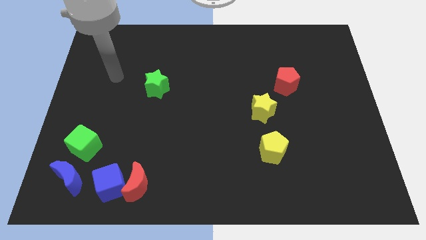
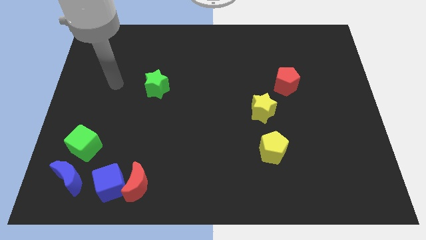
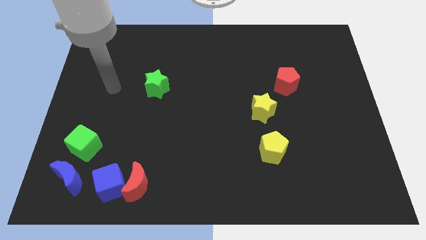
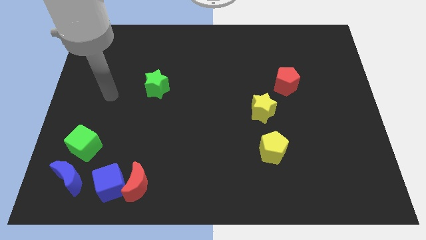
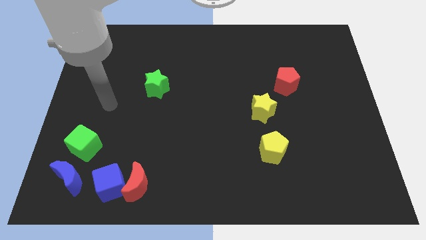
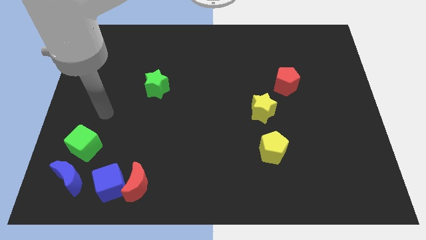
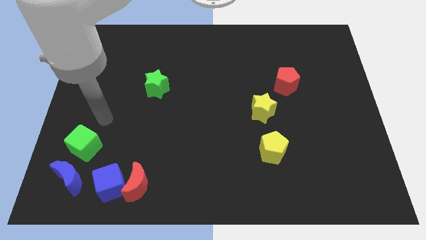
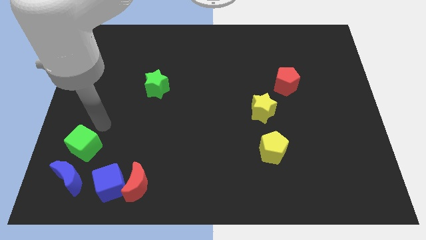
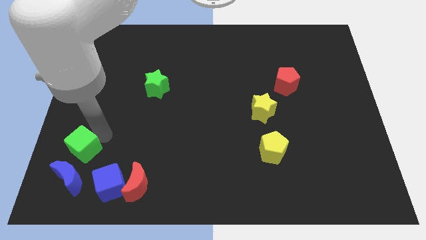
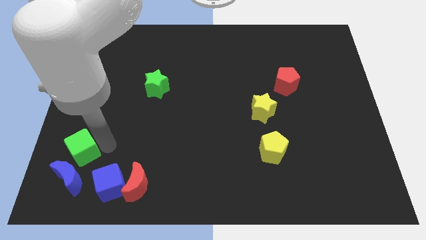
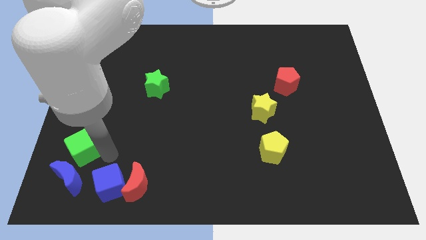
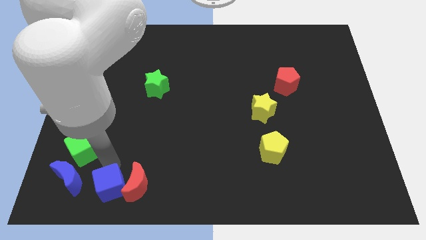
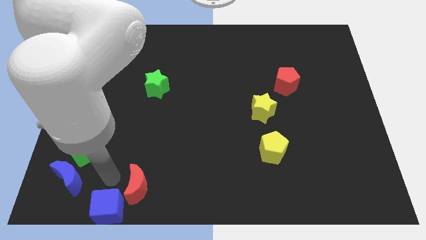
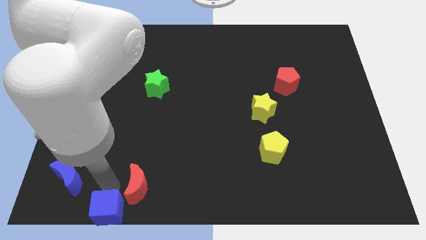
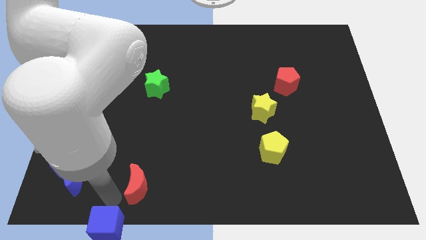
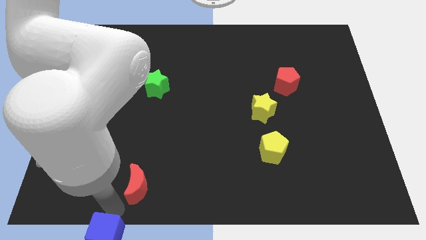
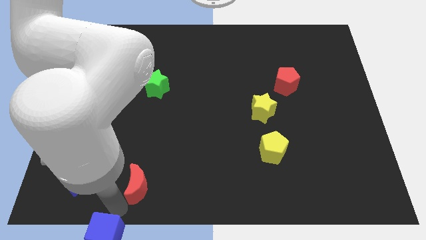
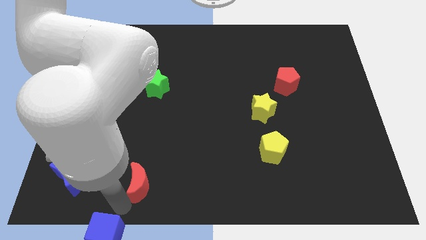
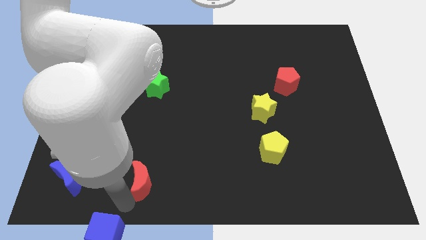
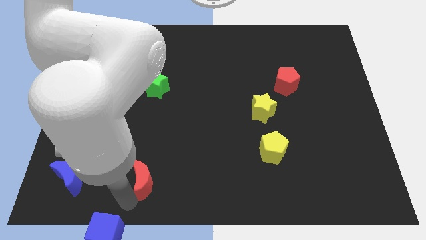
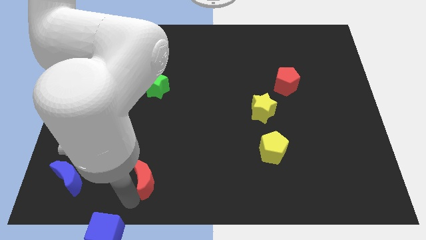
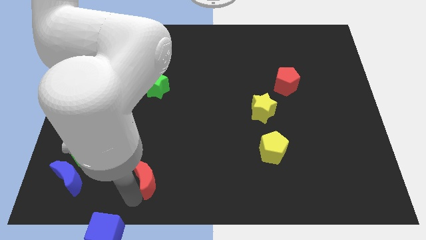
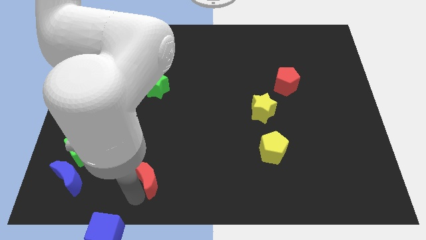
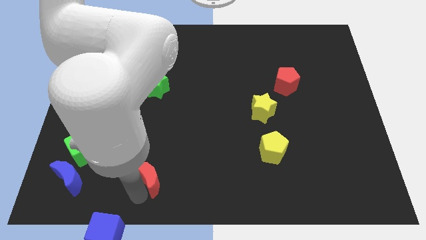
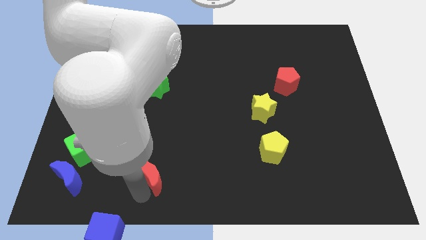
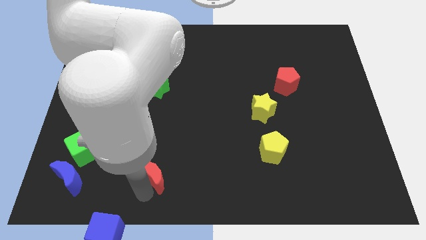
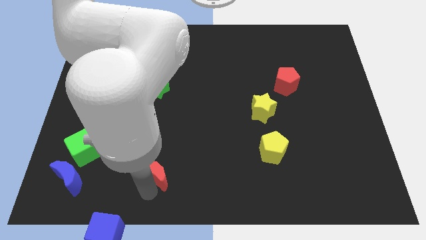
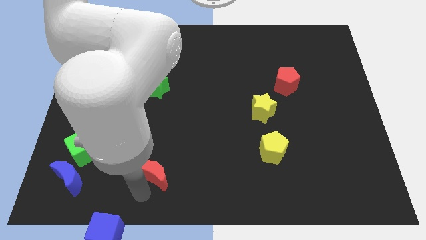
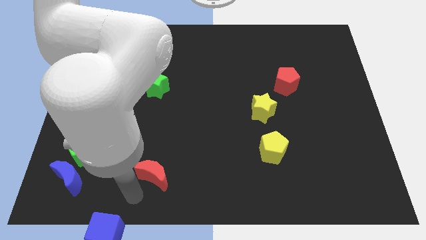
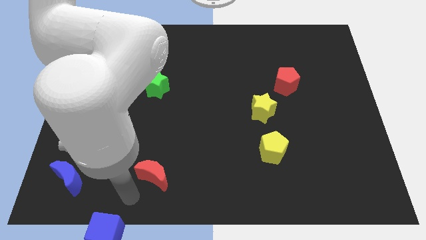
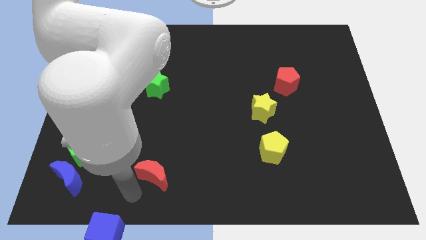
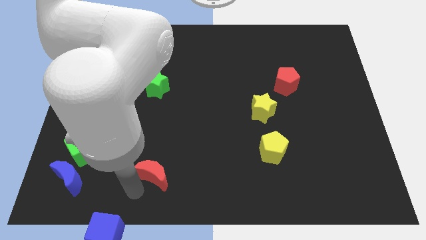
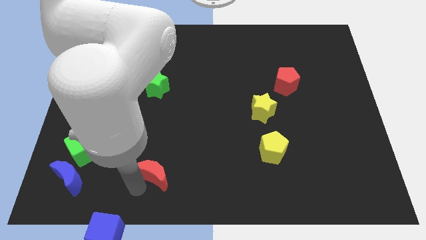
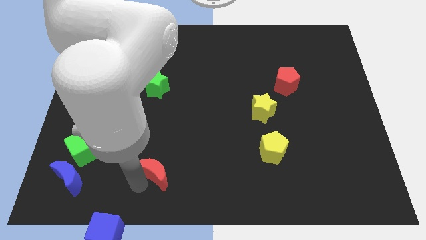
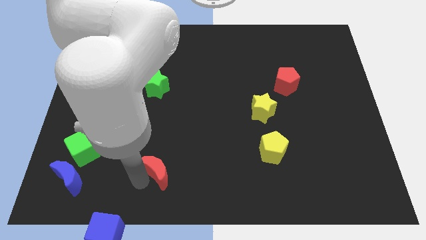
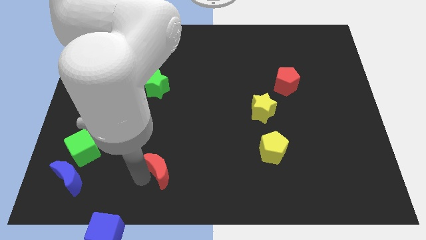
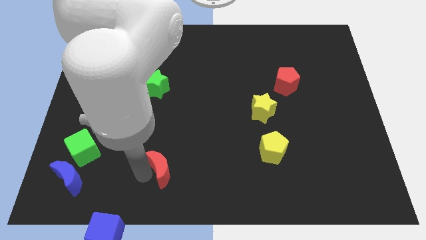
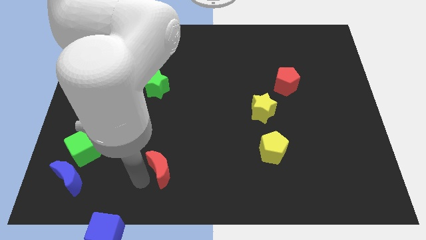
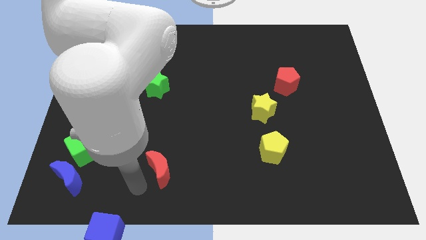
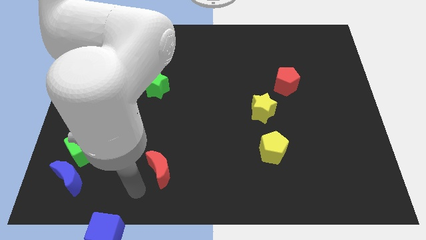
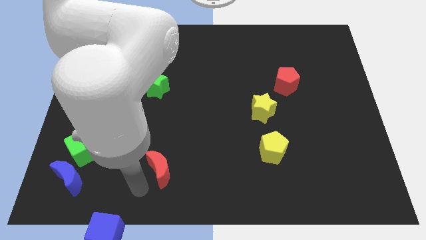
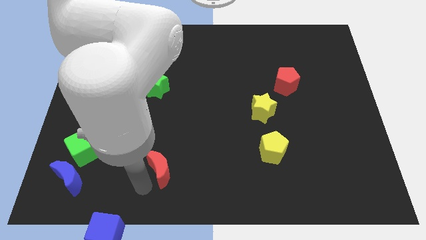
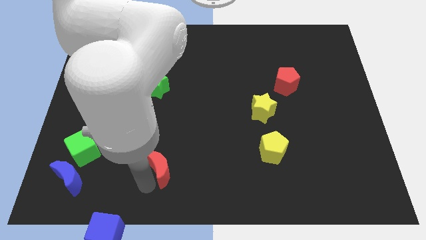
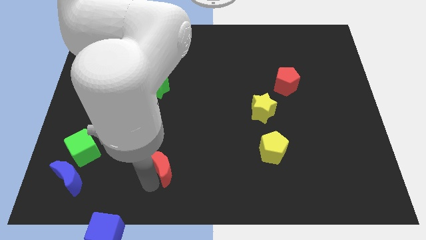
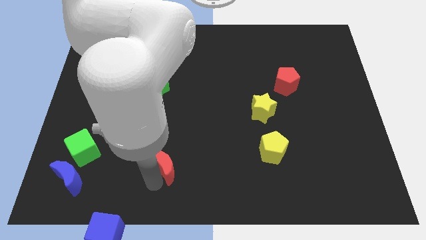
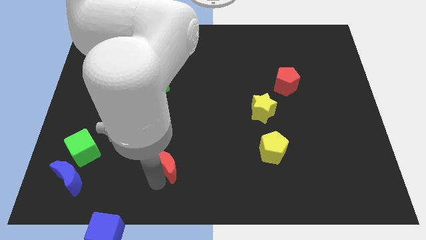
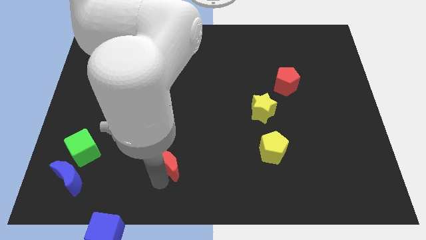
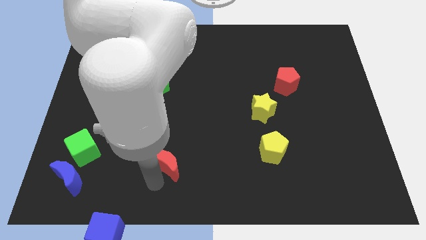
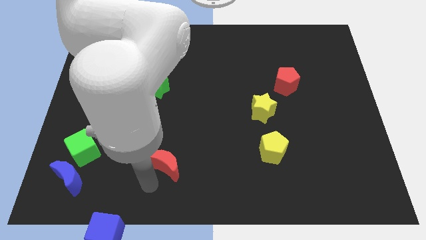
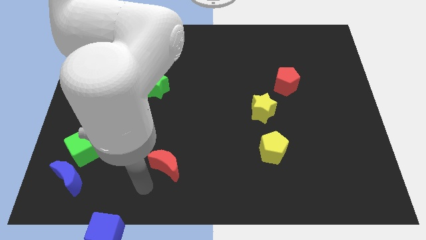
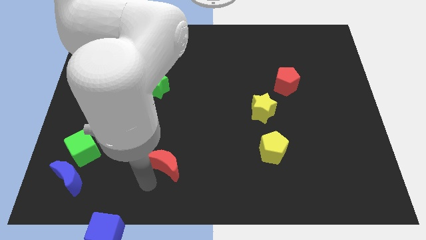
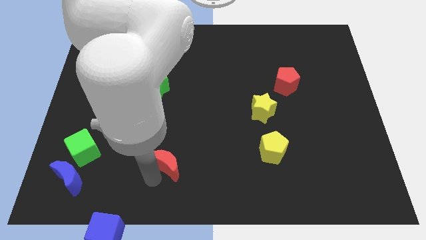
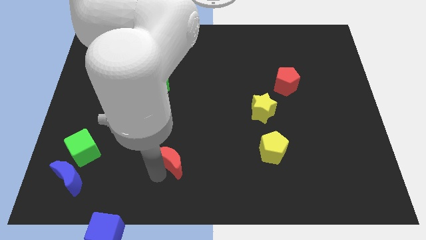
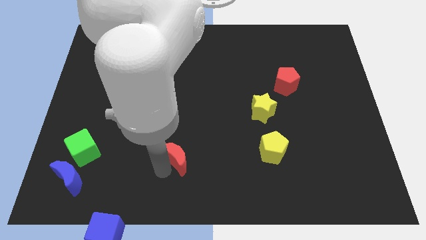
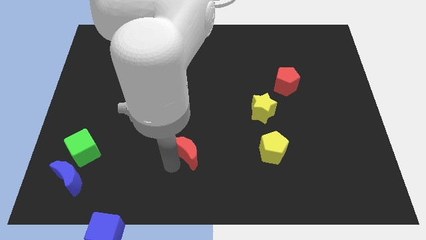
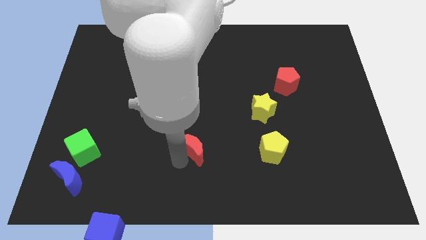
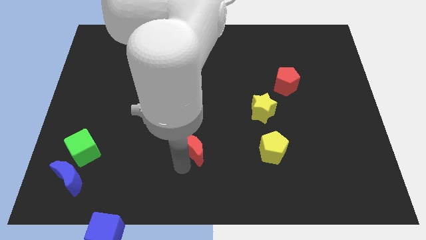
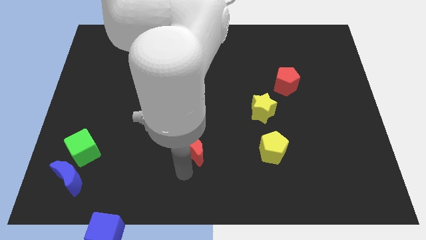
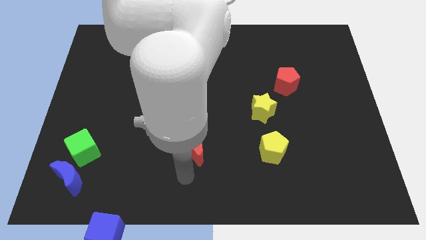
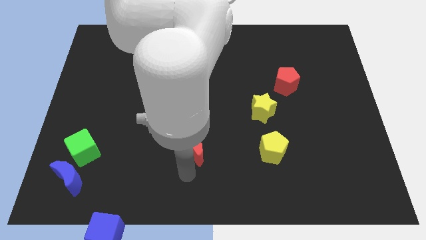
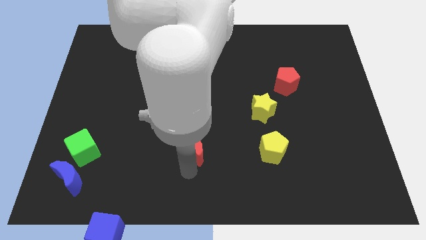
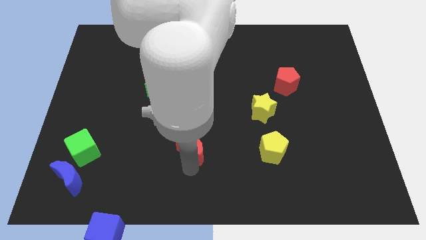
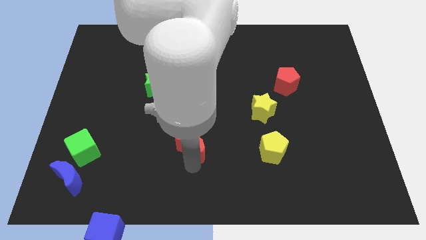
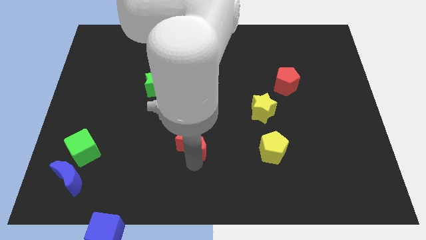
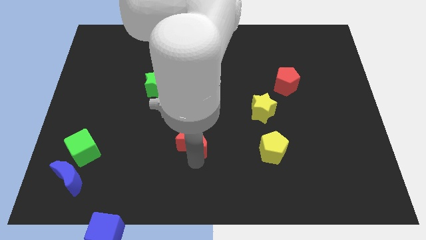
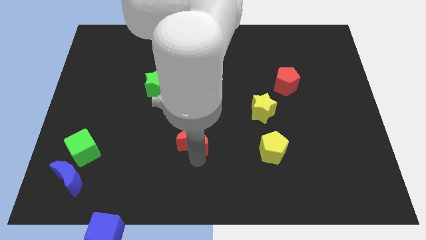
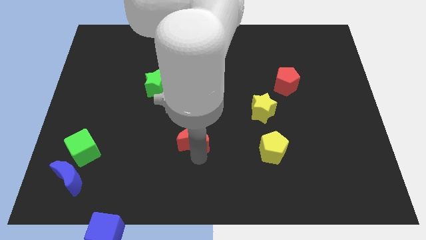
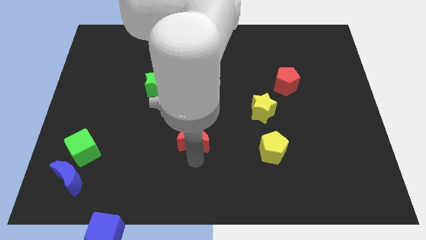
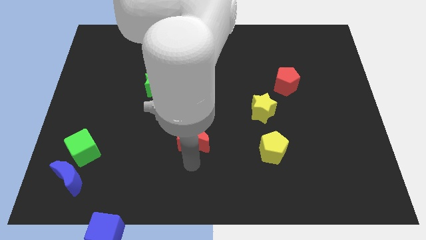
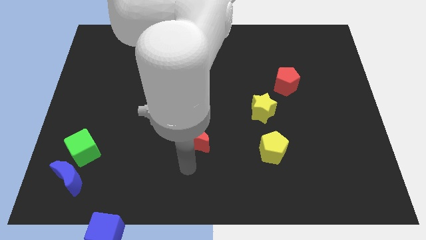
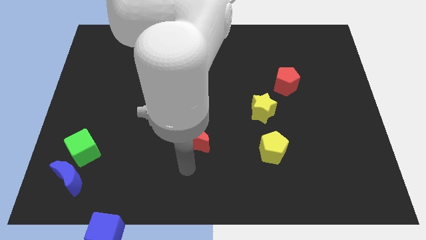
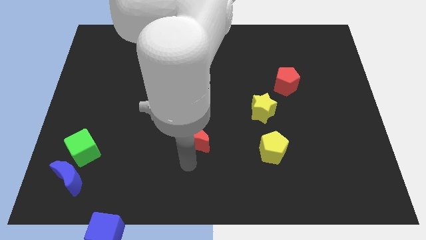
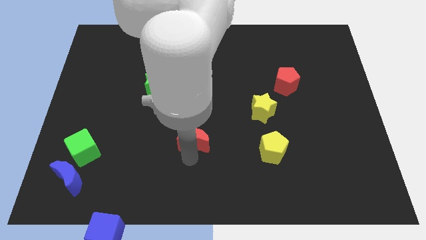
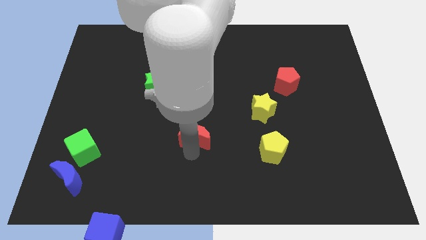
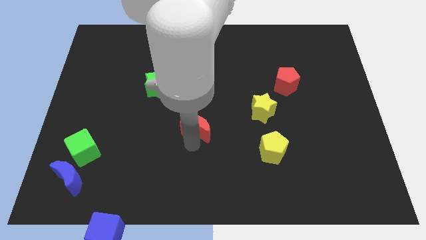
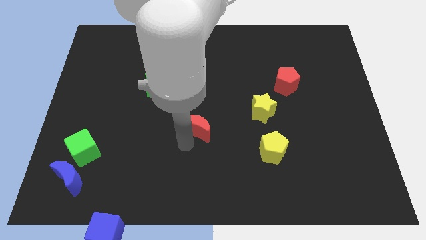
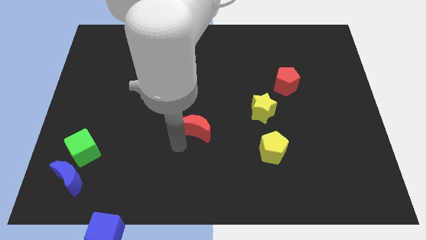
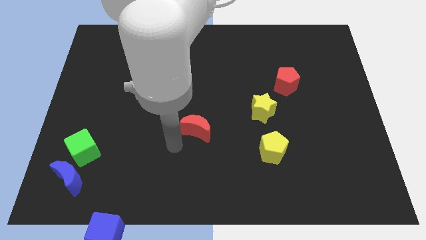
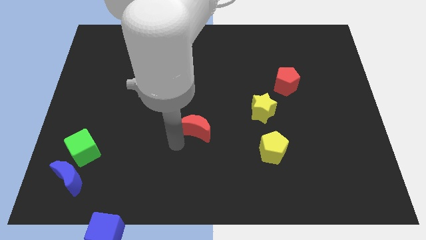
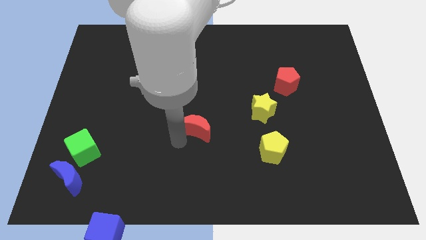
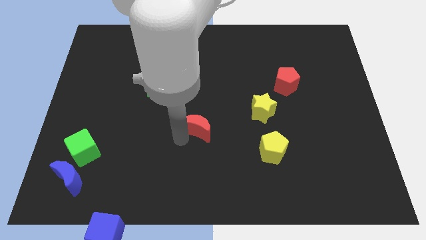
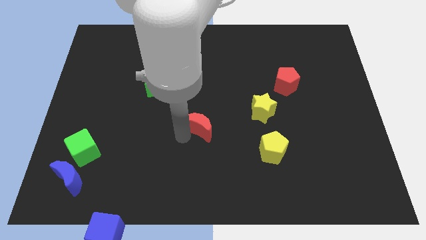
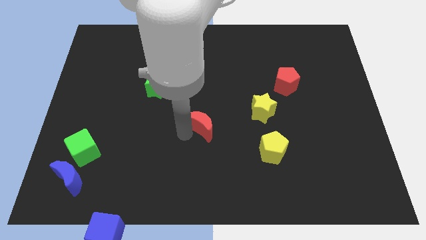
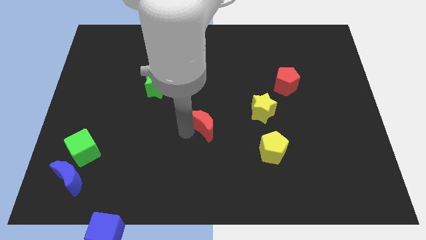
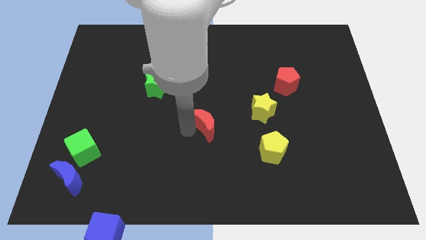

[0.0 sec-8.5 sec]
move the red moon up and then right
